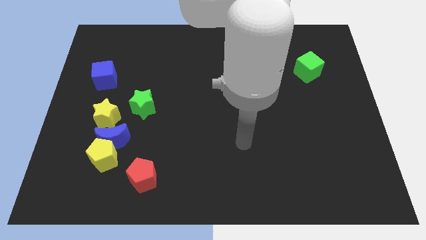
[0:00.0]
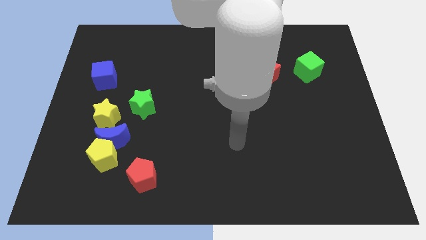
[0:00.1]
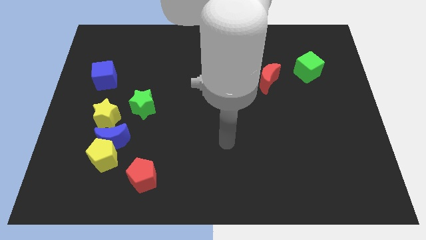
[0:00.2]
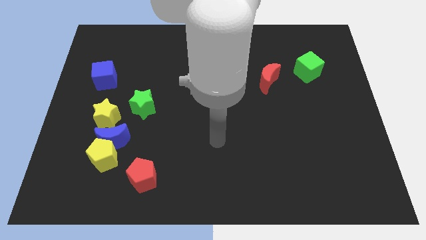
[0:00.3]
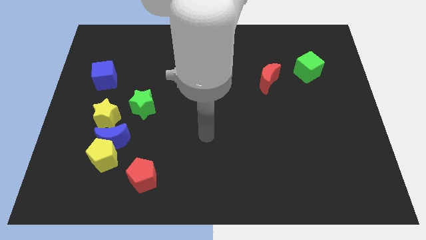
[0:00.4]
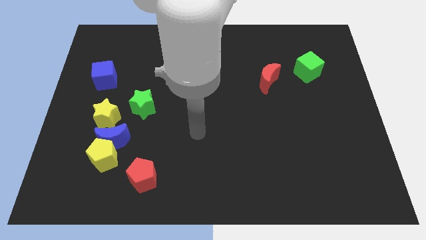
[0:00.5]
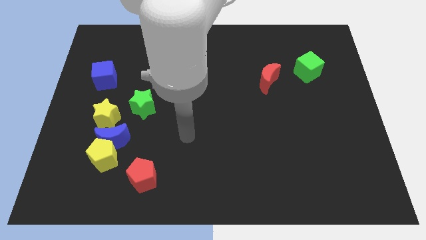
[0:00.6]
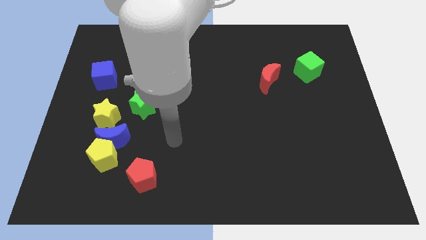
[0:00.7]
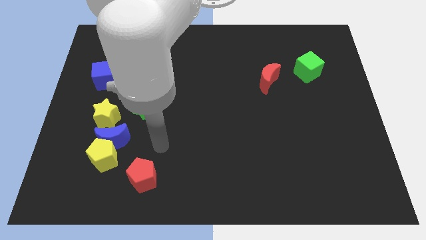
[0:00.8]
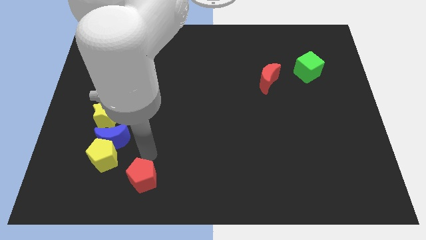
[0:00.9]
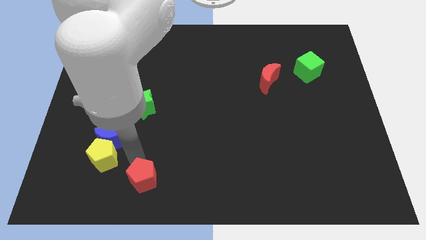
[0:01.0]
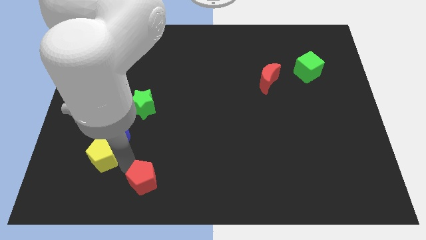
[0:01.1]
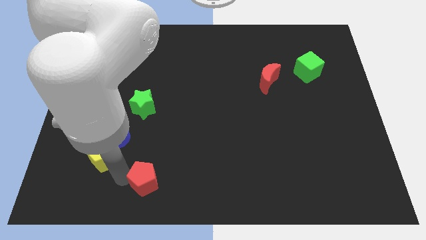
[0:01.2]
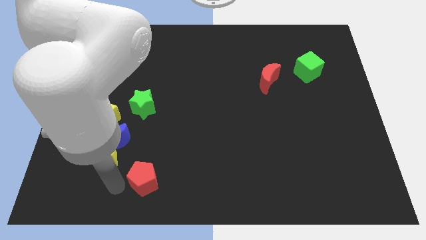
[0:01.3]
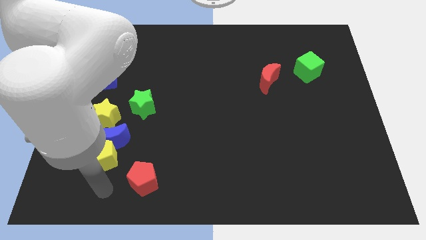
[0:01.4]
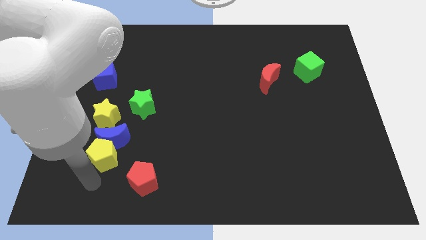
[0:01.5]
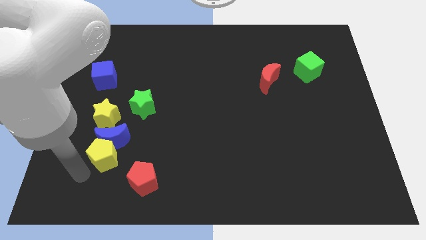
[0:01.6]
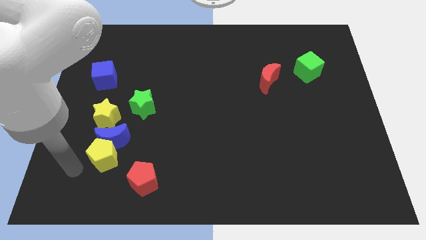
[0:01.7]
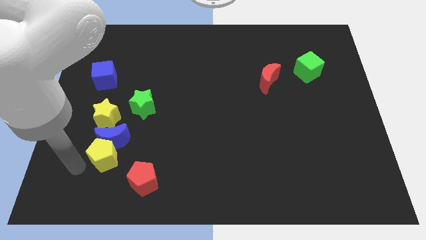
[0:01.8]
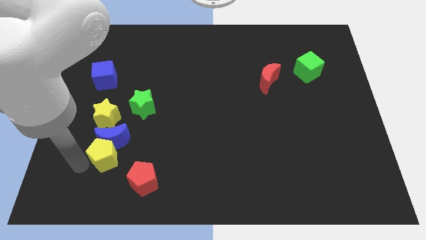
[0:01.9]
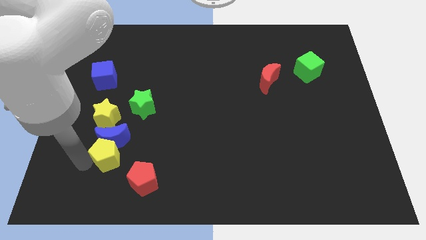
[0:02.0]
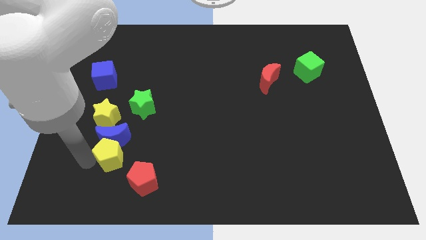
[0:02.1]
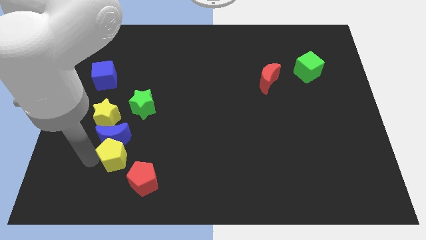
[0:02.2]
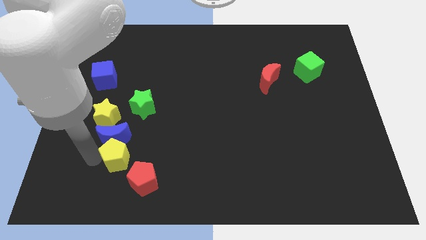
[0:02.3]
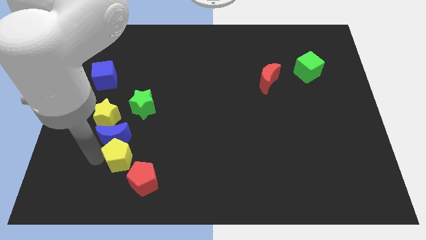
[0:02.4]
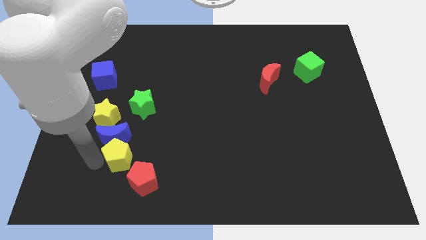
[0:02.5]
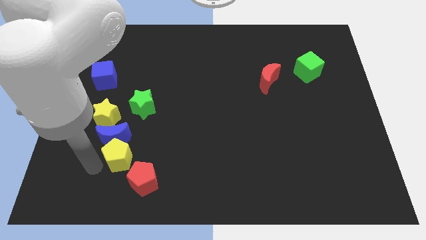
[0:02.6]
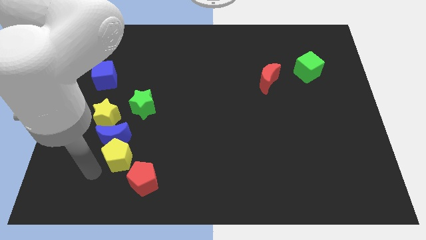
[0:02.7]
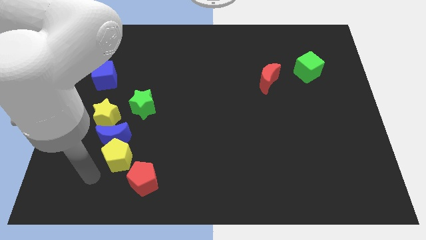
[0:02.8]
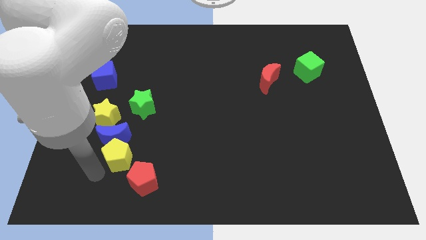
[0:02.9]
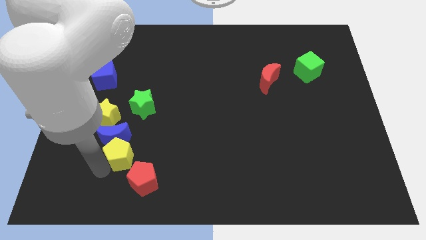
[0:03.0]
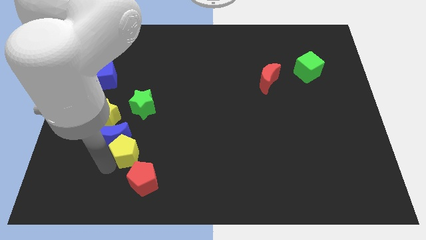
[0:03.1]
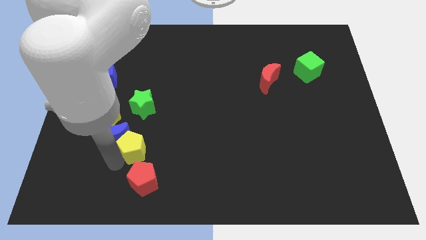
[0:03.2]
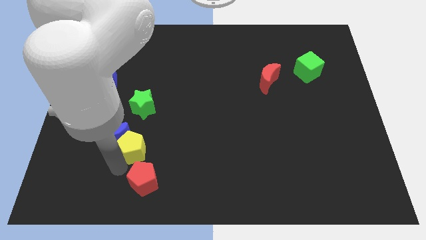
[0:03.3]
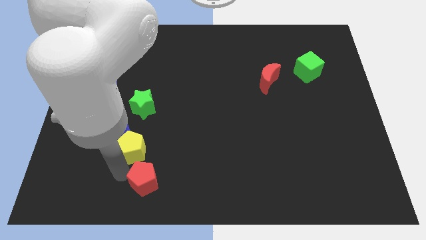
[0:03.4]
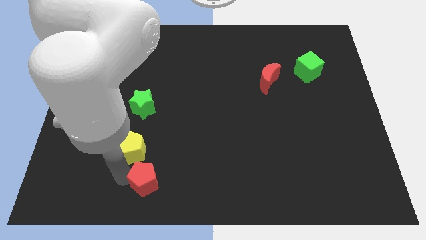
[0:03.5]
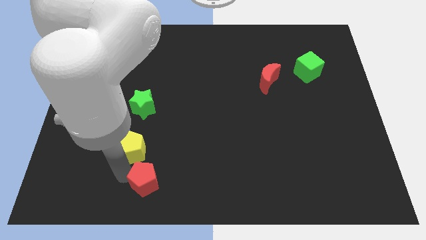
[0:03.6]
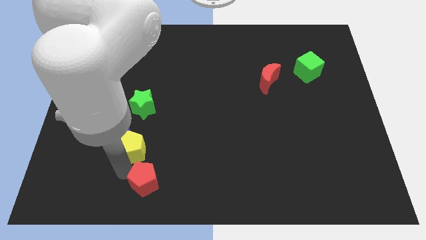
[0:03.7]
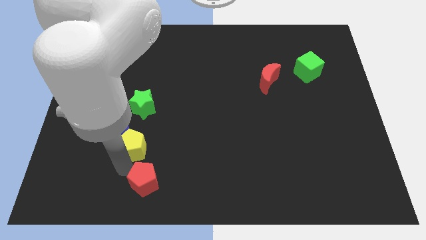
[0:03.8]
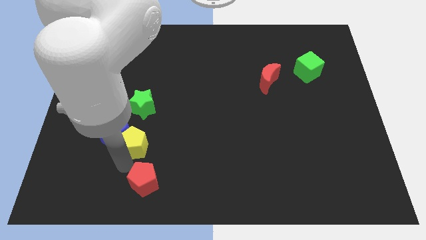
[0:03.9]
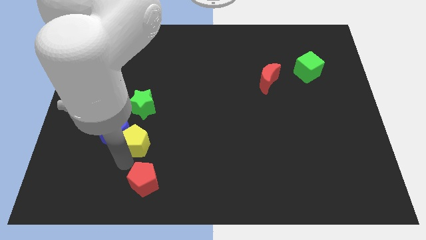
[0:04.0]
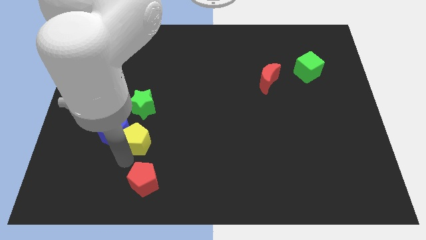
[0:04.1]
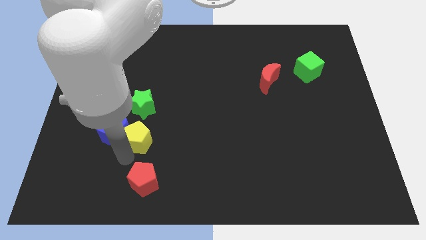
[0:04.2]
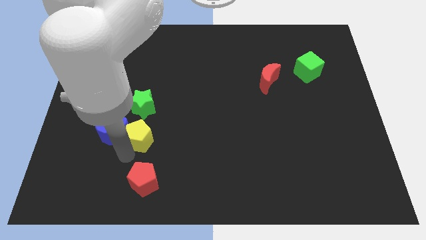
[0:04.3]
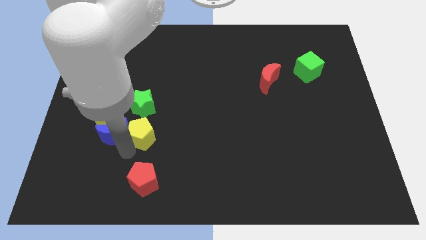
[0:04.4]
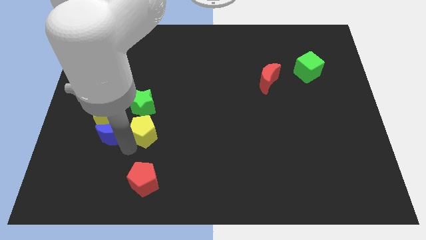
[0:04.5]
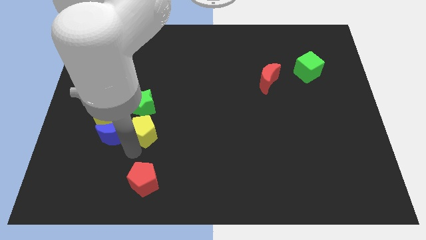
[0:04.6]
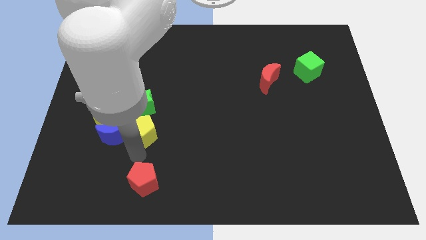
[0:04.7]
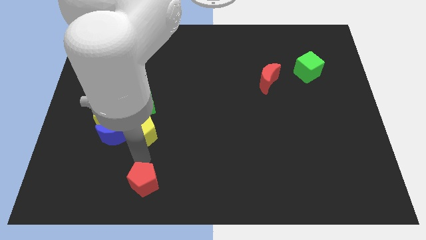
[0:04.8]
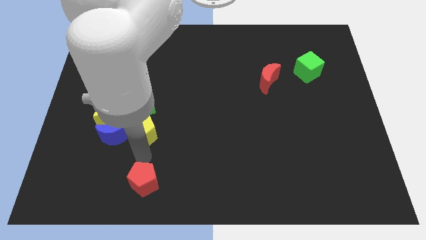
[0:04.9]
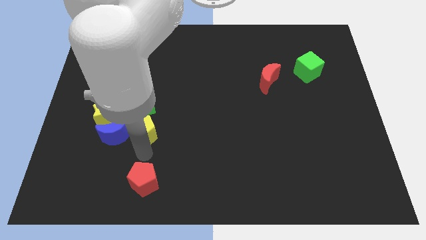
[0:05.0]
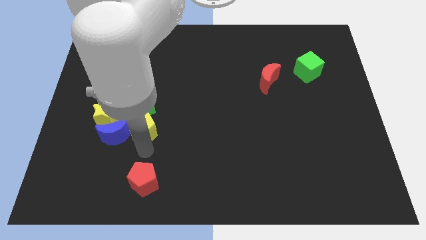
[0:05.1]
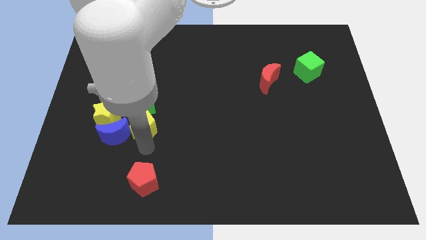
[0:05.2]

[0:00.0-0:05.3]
move the yellow pentagon close to the green star

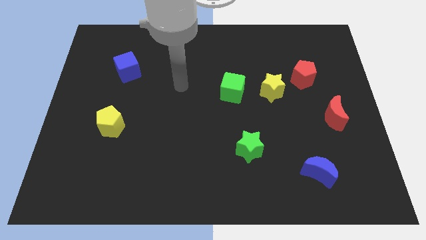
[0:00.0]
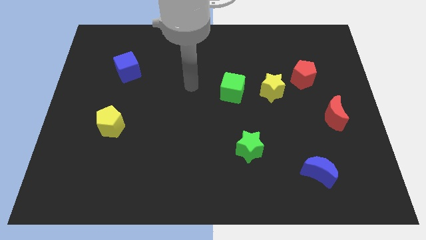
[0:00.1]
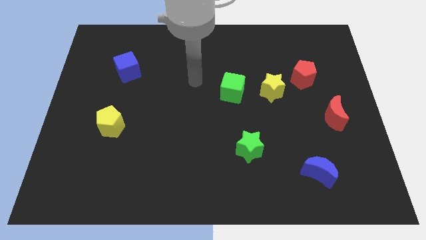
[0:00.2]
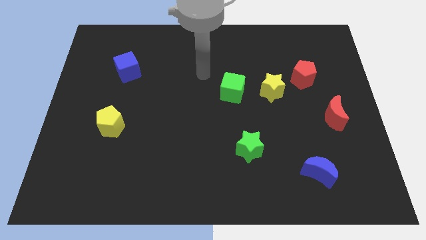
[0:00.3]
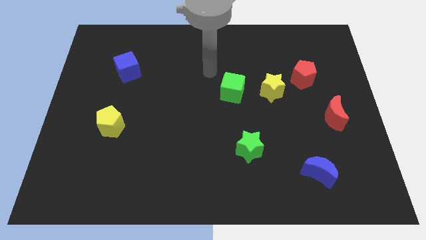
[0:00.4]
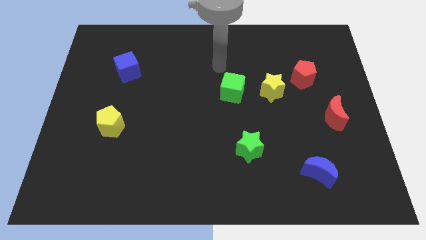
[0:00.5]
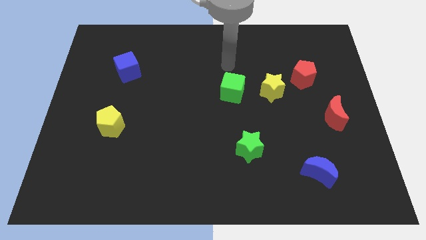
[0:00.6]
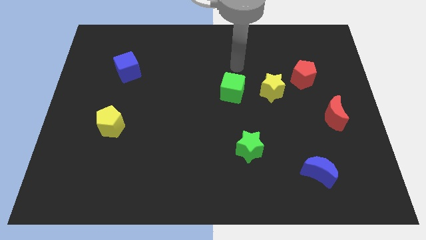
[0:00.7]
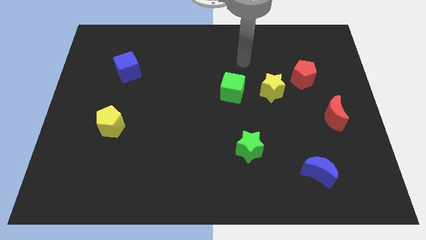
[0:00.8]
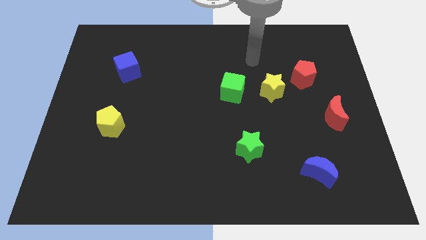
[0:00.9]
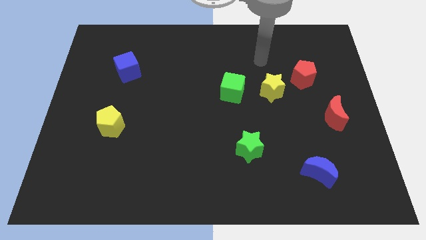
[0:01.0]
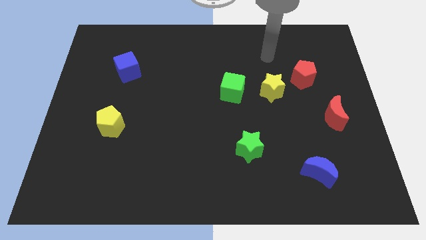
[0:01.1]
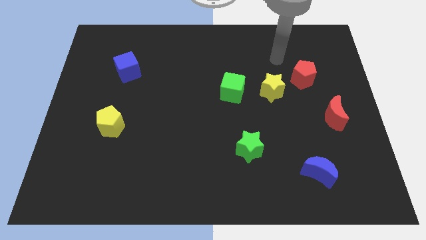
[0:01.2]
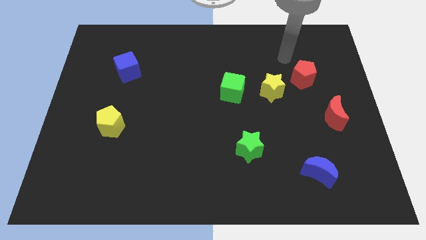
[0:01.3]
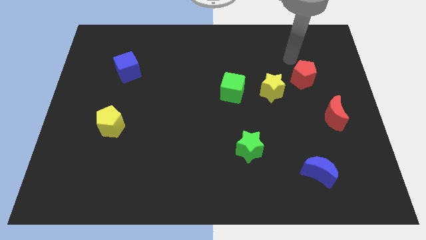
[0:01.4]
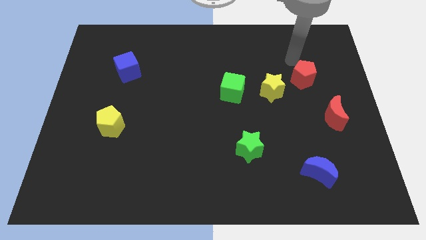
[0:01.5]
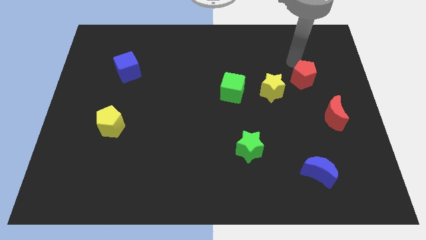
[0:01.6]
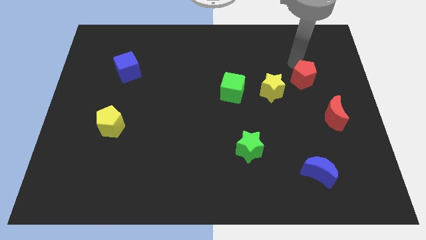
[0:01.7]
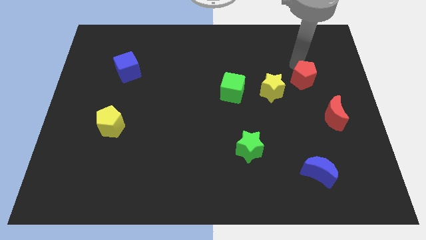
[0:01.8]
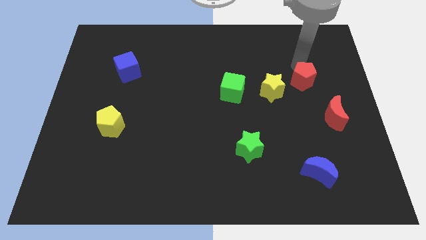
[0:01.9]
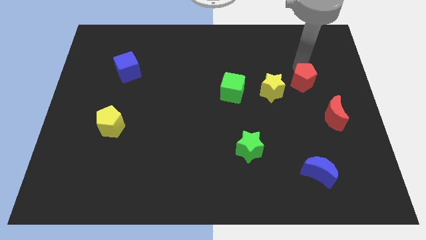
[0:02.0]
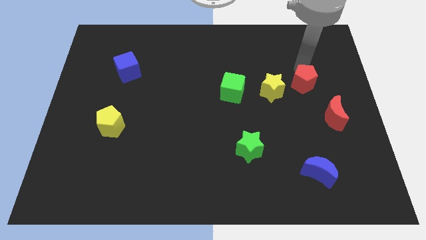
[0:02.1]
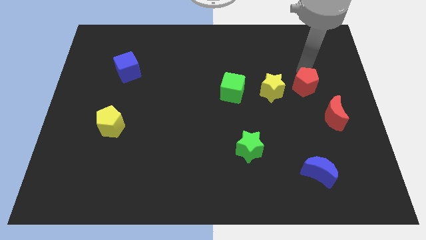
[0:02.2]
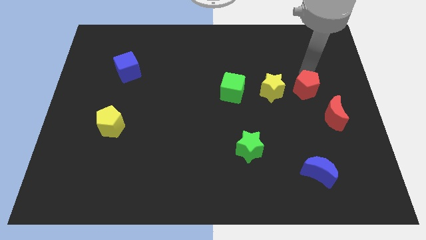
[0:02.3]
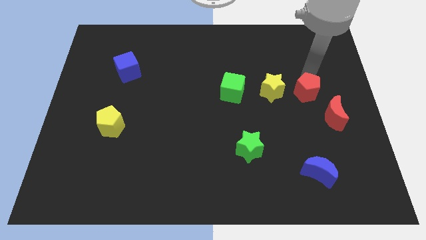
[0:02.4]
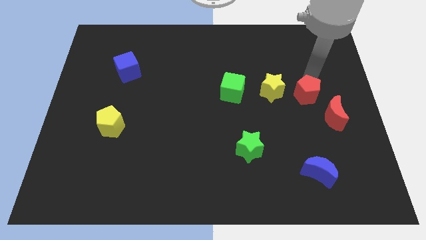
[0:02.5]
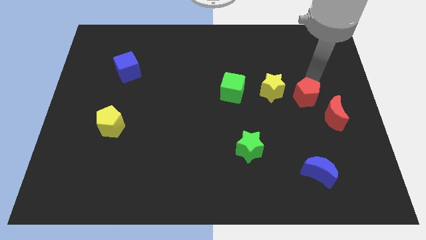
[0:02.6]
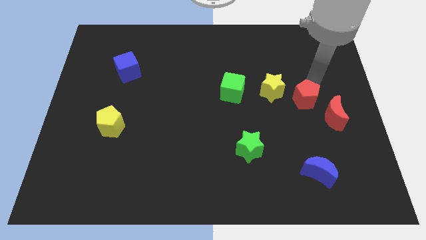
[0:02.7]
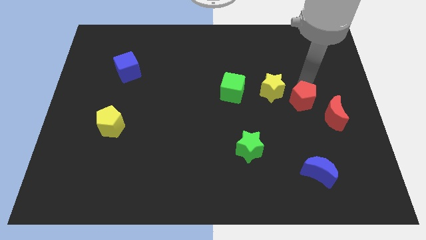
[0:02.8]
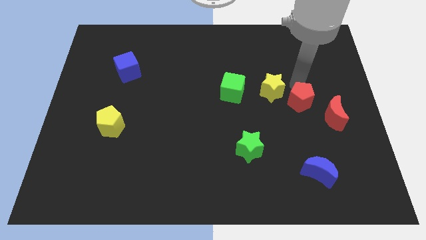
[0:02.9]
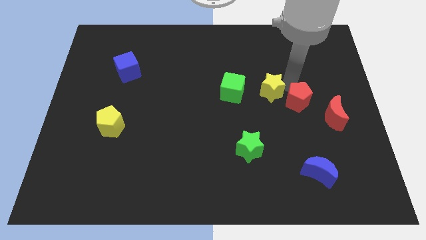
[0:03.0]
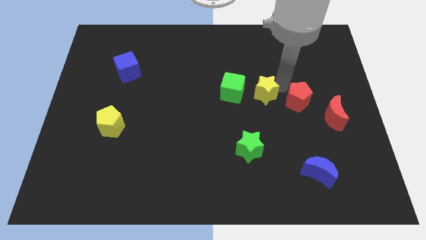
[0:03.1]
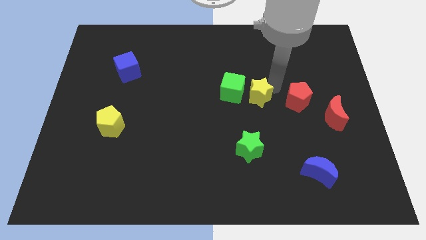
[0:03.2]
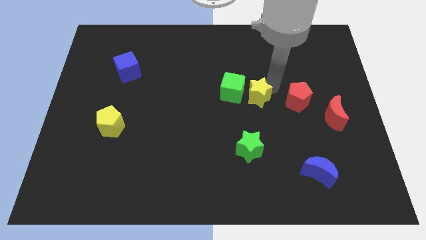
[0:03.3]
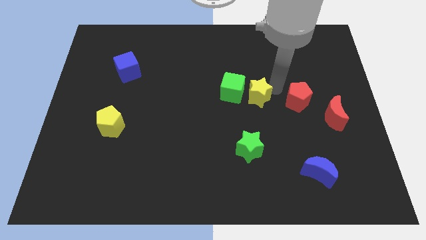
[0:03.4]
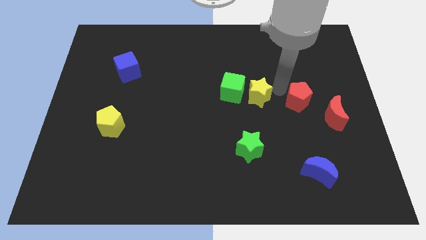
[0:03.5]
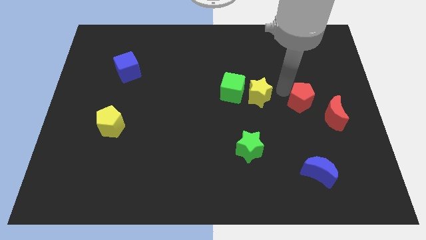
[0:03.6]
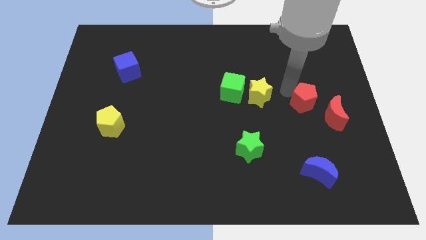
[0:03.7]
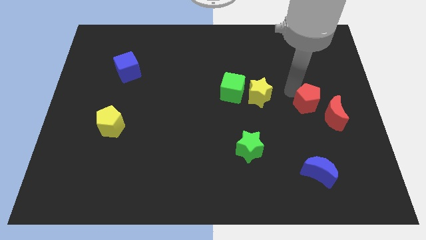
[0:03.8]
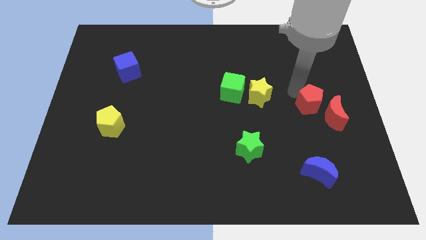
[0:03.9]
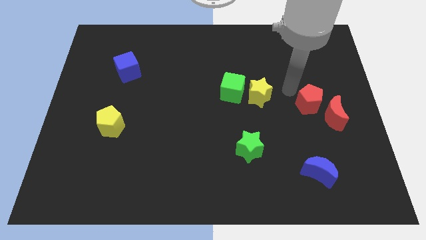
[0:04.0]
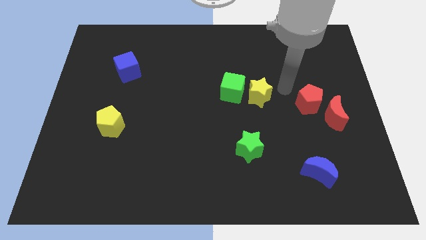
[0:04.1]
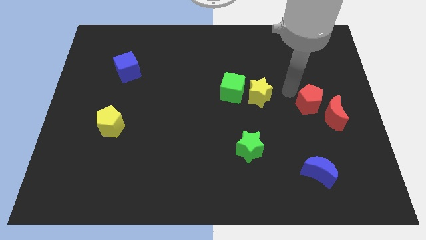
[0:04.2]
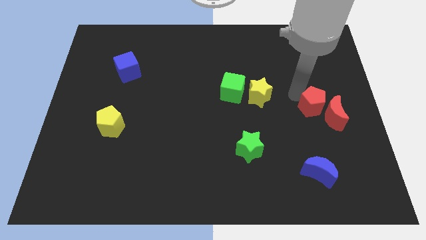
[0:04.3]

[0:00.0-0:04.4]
slide the red pentagon next to the red moon
